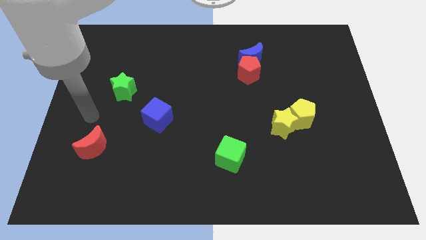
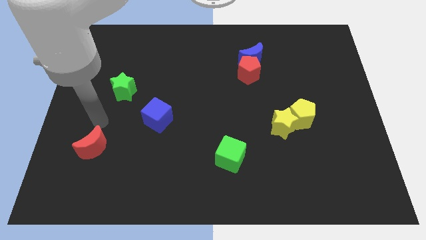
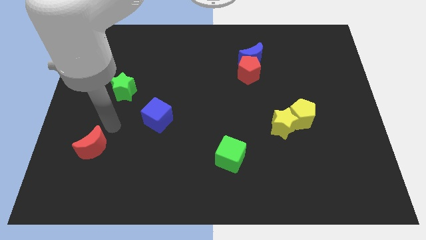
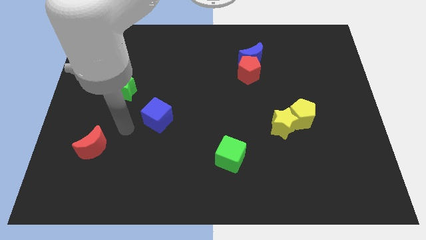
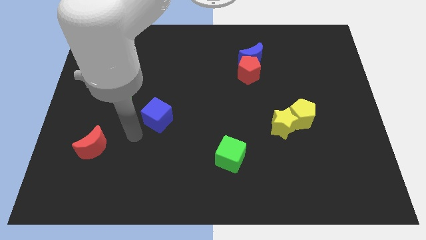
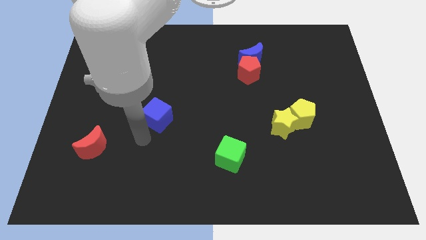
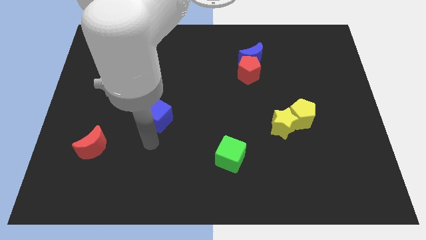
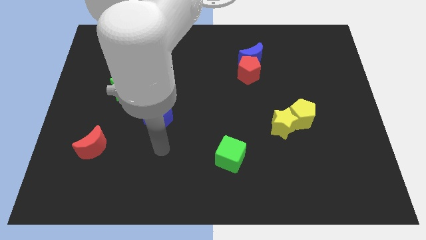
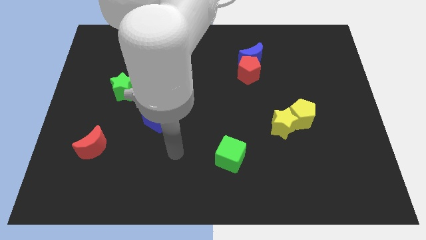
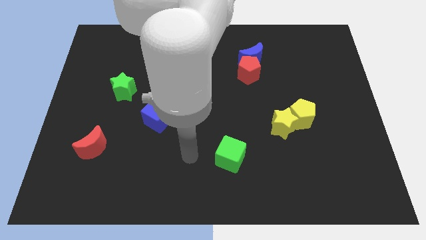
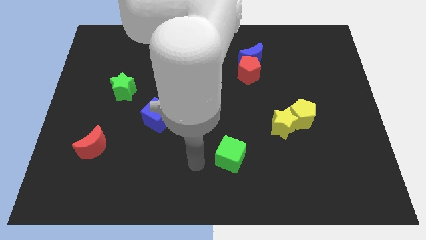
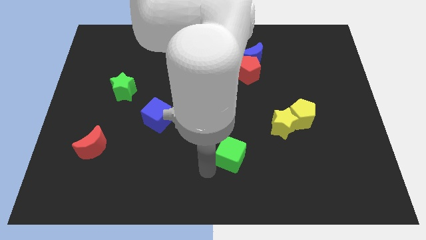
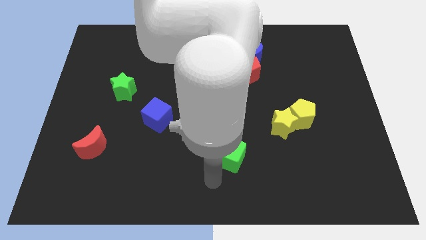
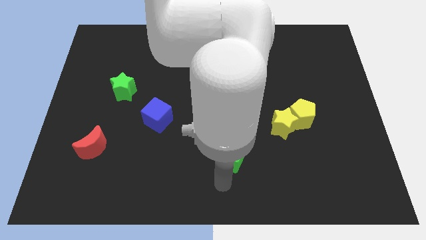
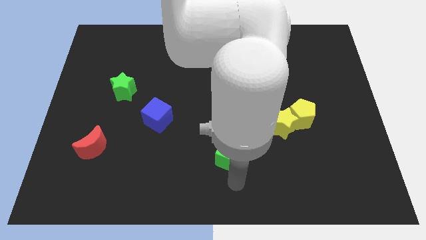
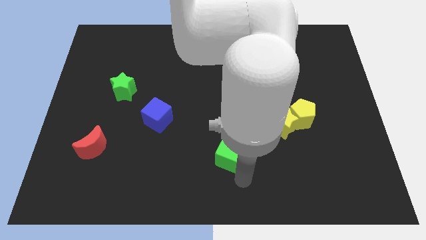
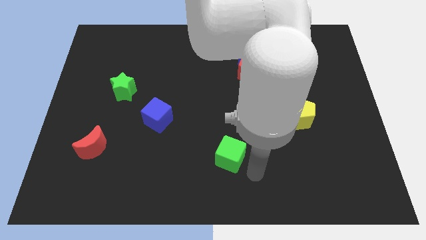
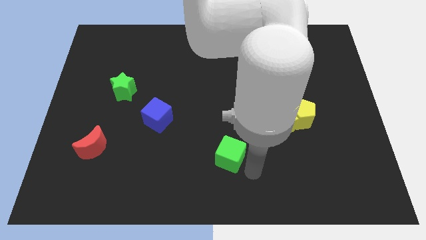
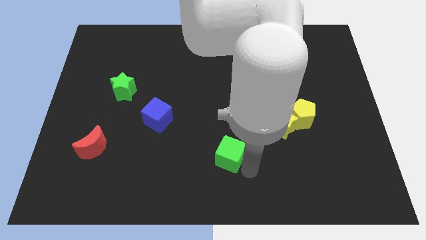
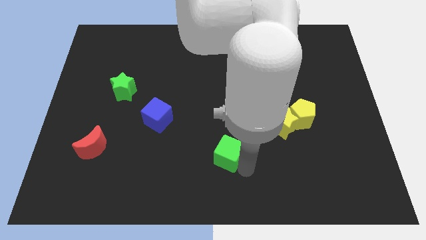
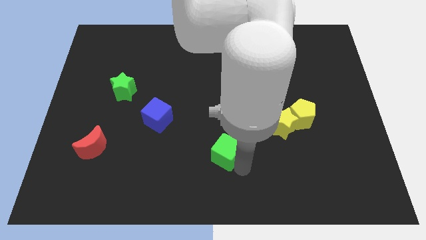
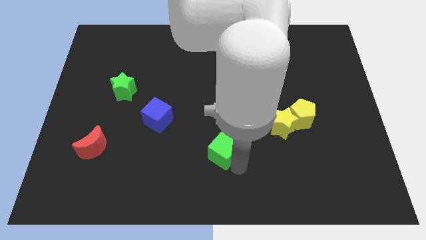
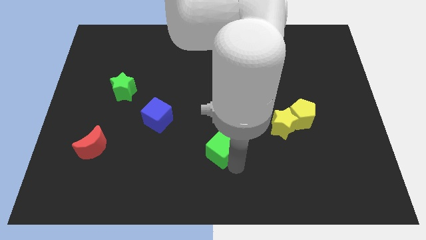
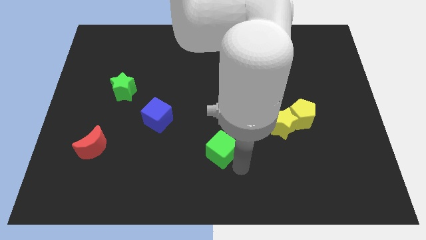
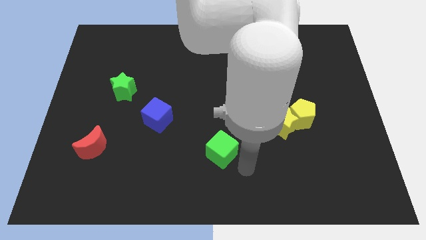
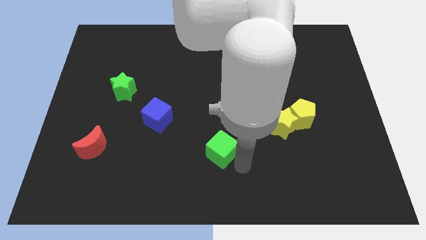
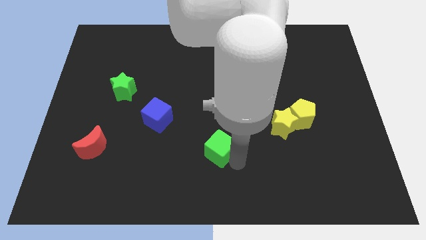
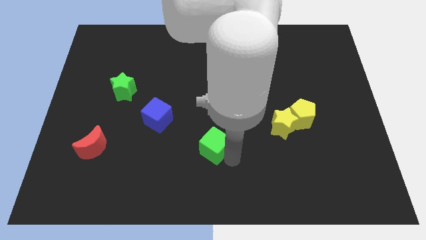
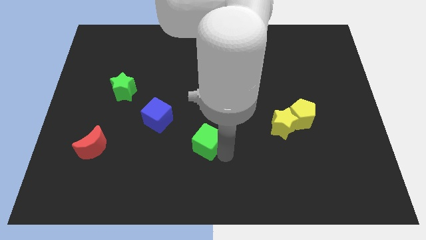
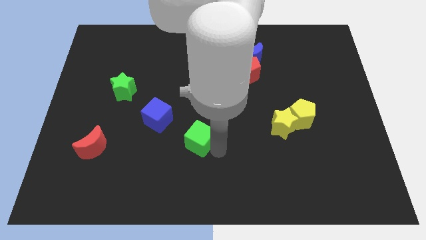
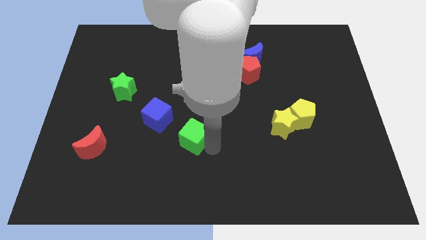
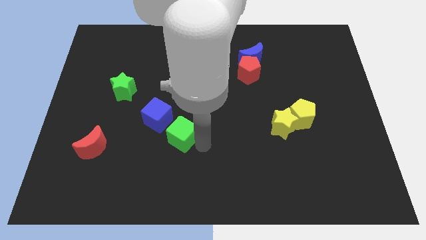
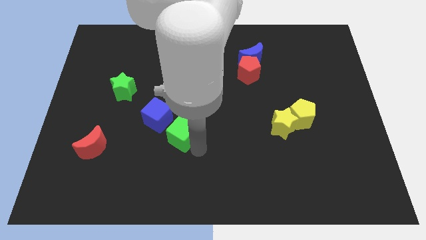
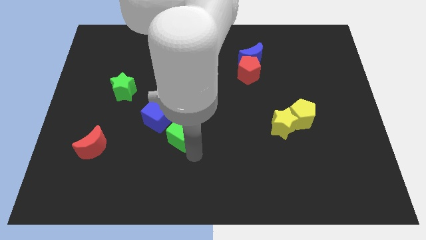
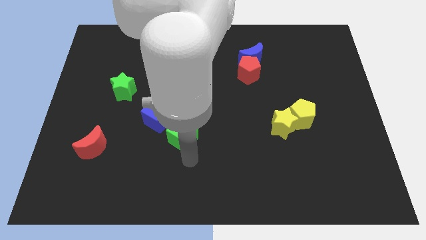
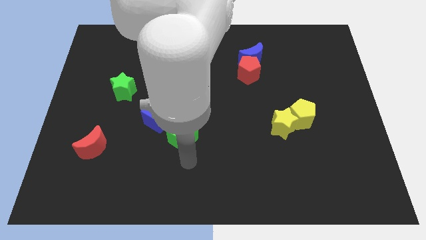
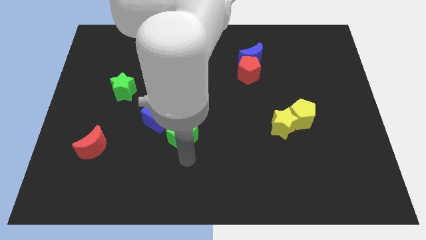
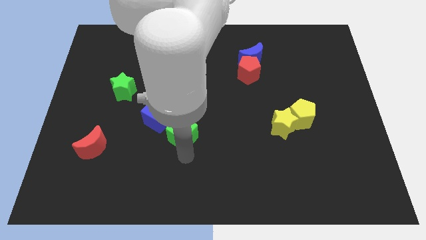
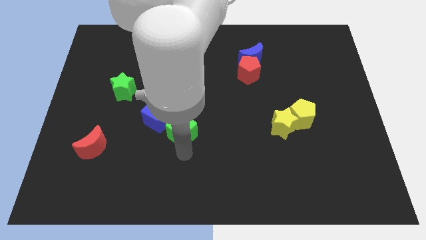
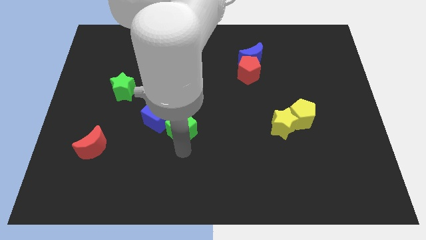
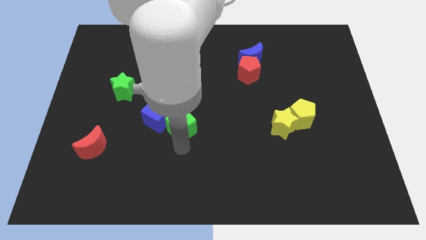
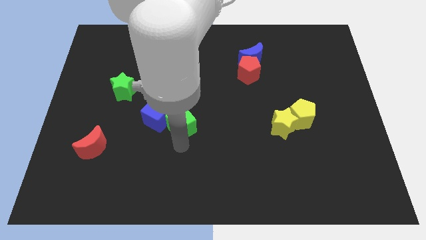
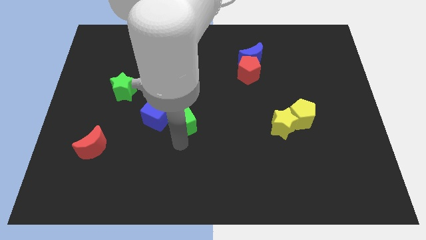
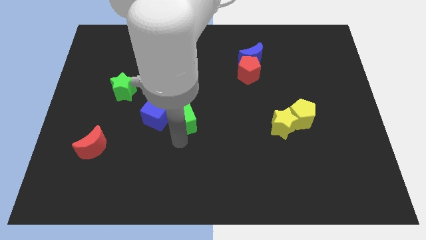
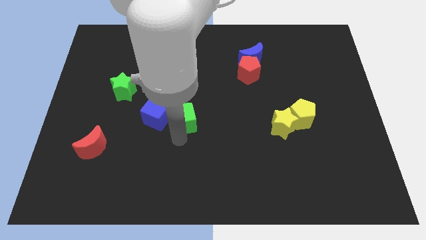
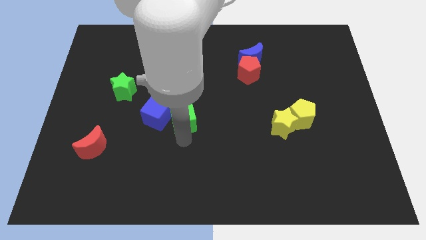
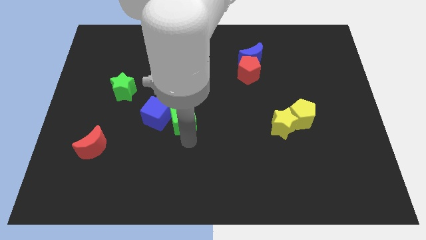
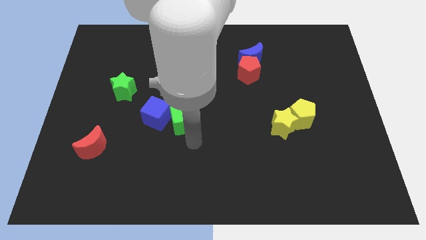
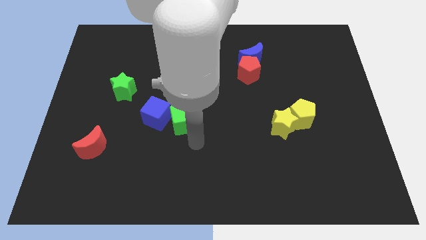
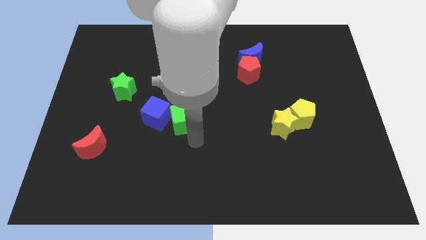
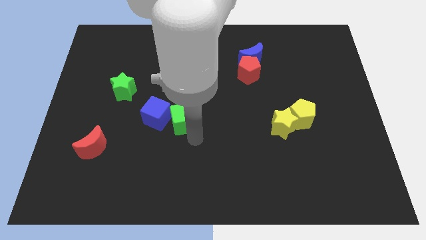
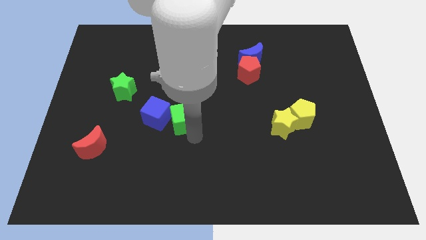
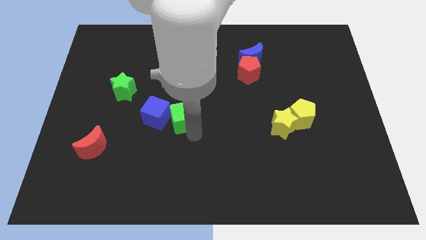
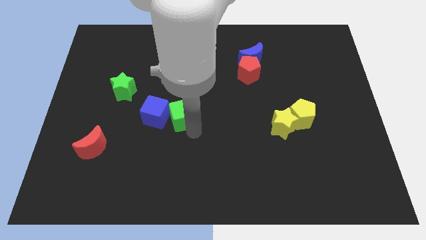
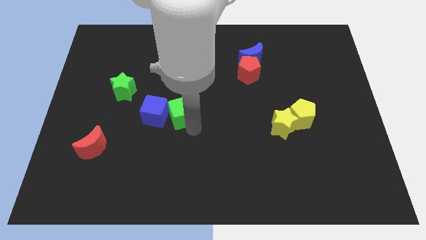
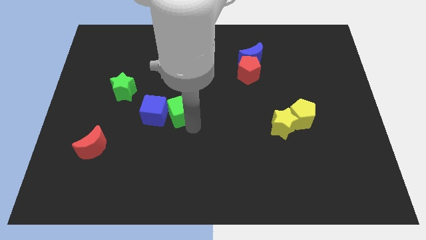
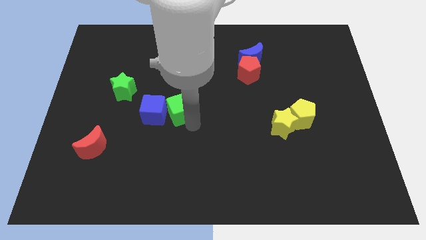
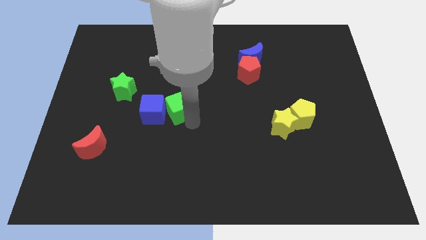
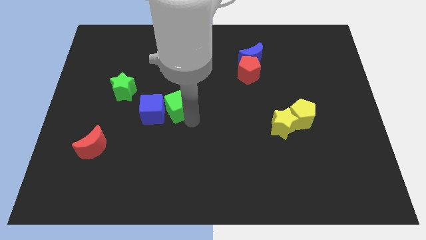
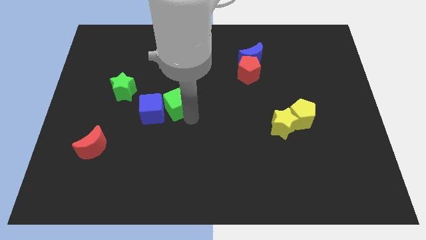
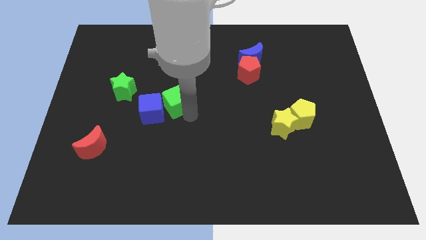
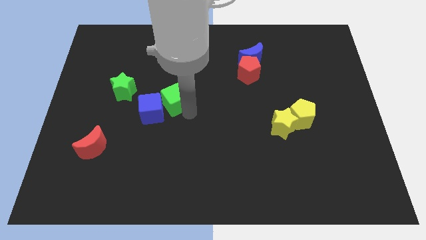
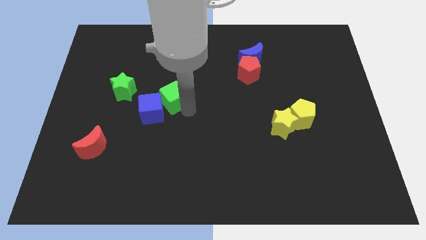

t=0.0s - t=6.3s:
slide the green cube upwards and then to the left

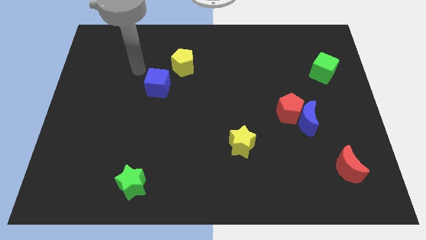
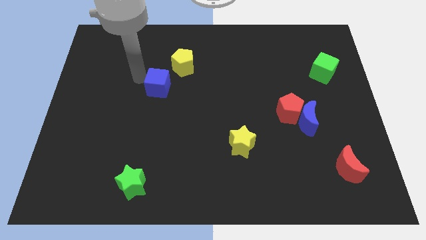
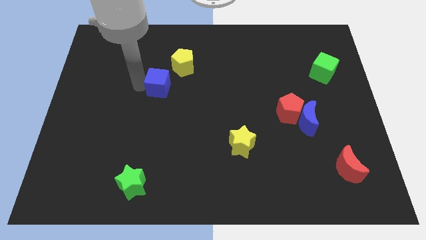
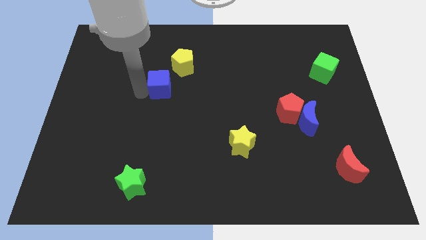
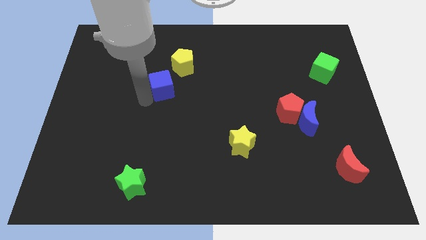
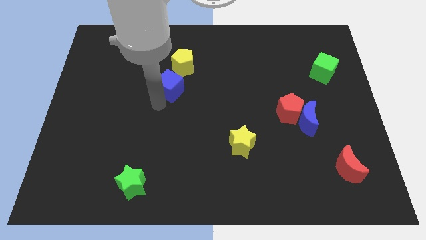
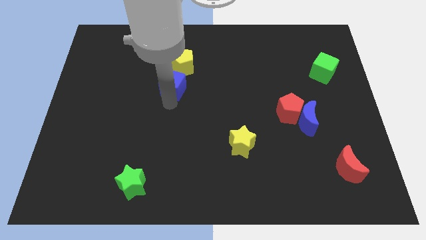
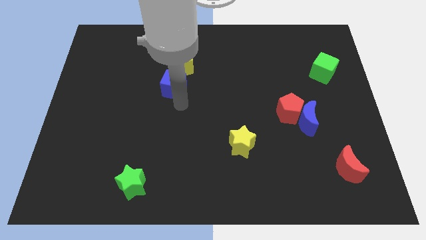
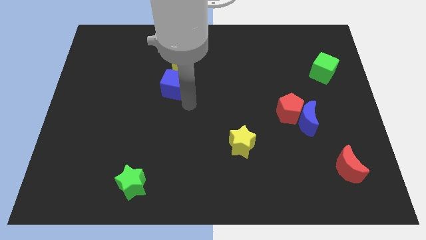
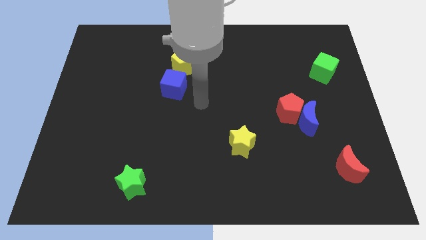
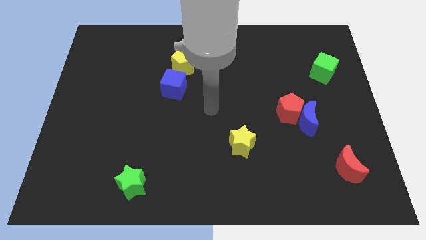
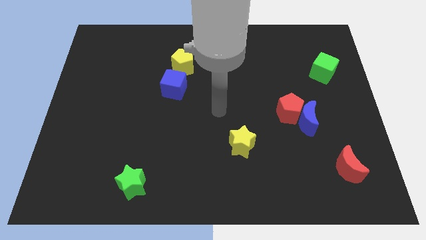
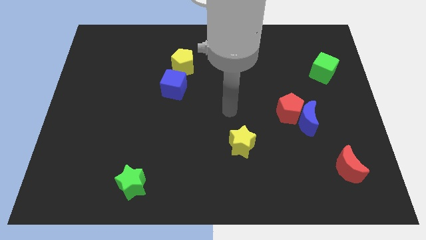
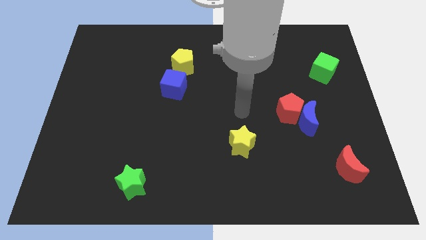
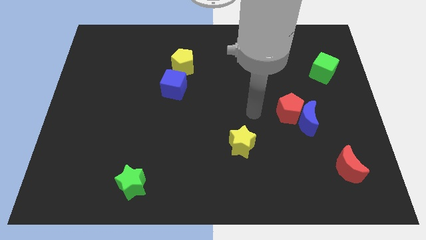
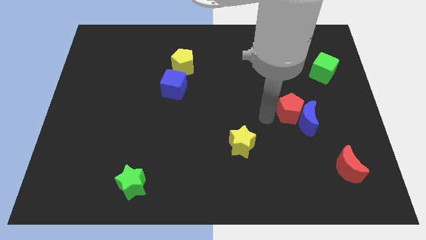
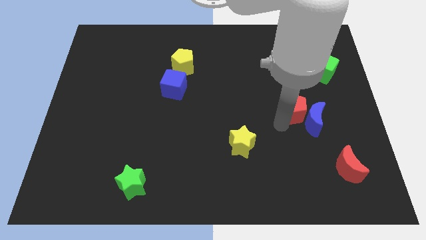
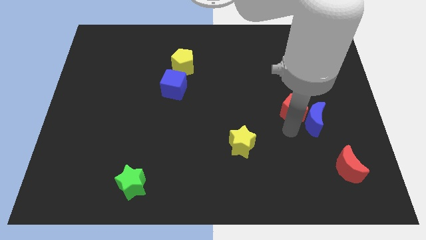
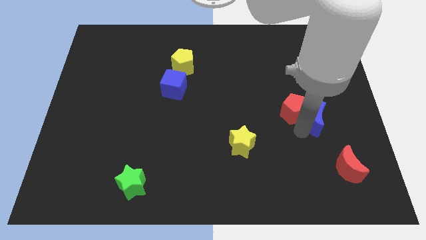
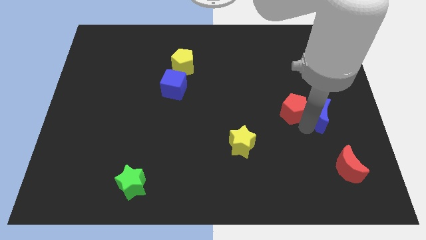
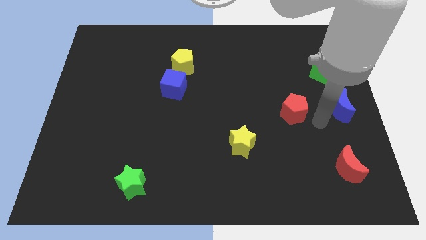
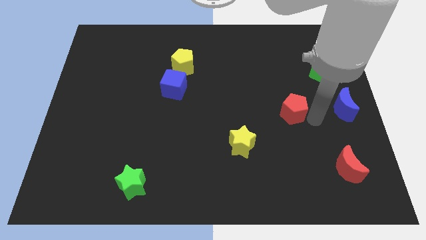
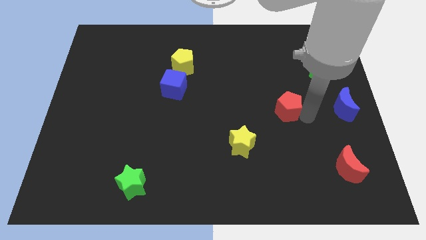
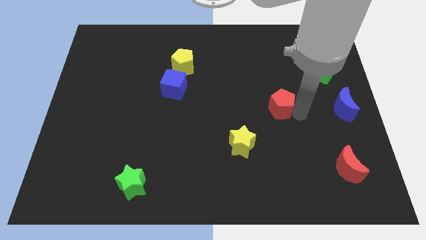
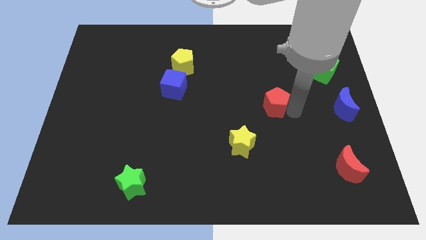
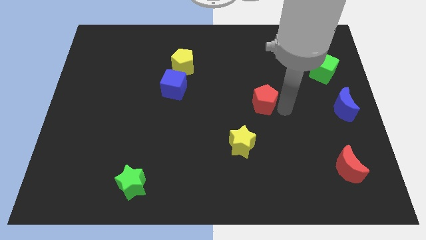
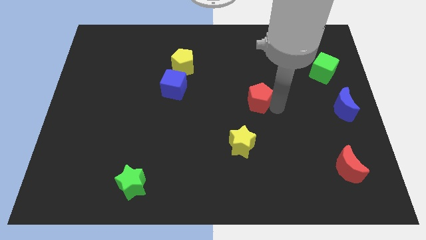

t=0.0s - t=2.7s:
move the red pentagon diagonally upwards and to the left slightly
